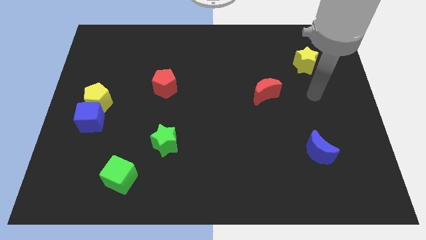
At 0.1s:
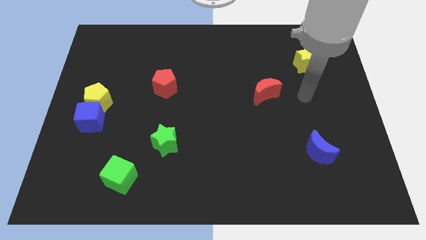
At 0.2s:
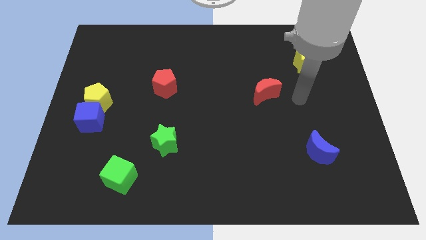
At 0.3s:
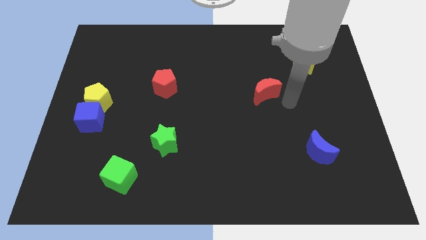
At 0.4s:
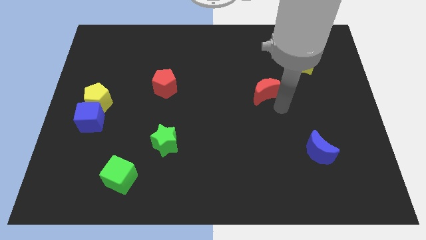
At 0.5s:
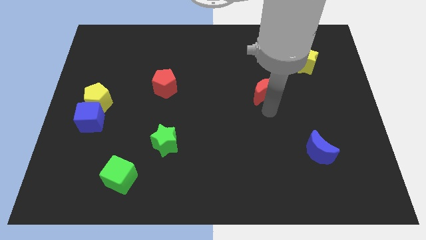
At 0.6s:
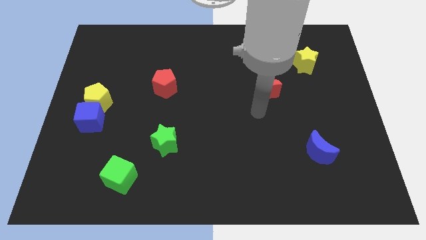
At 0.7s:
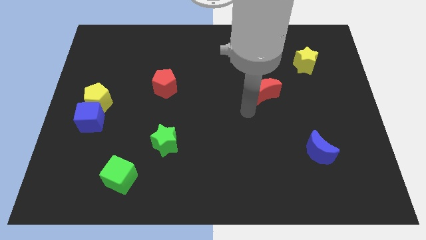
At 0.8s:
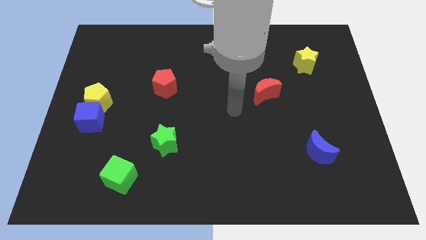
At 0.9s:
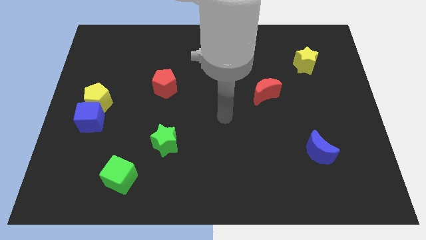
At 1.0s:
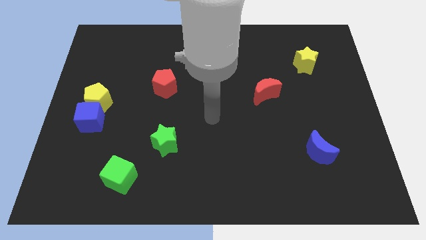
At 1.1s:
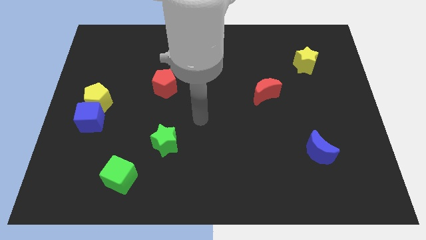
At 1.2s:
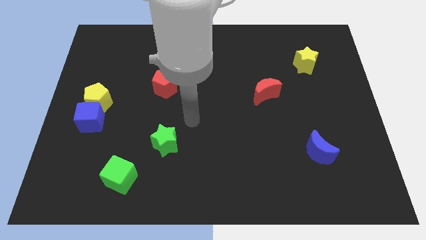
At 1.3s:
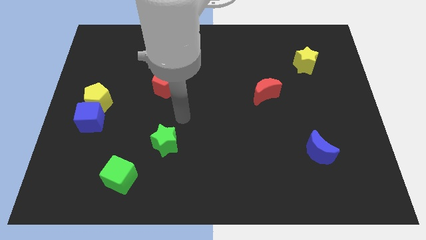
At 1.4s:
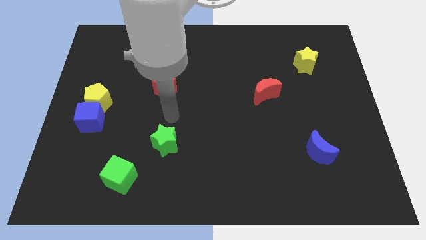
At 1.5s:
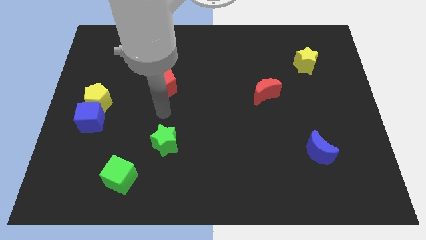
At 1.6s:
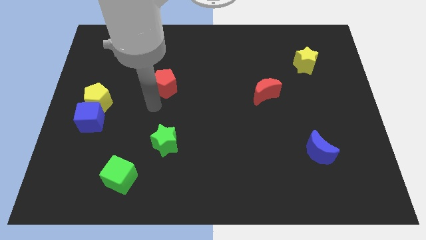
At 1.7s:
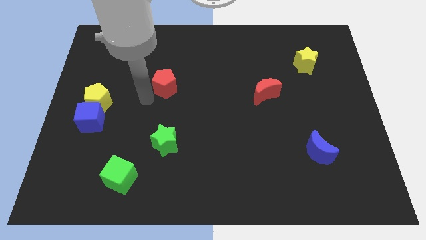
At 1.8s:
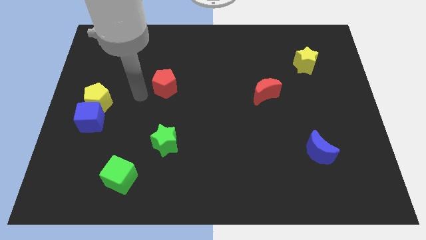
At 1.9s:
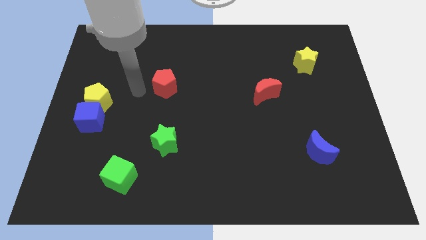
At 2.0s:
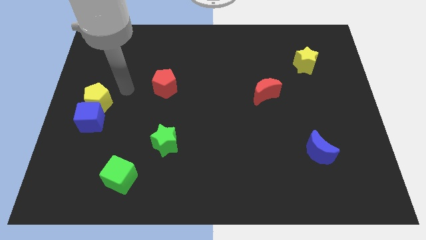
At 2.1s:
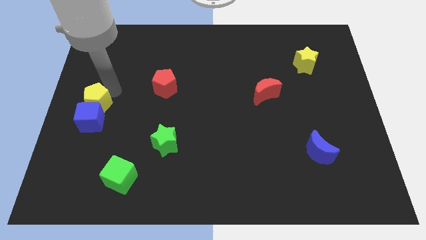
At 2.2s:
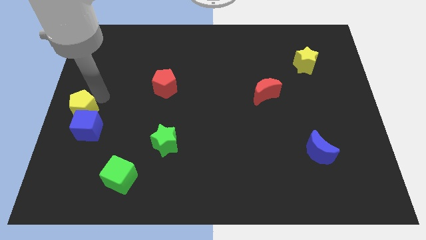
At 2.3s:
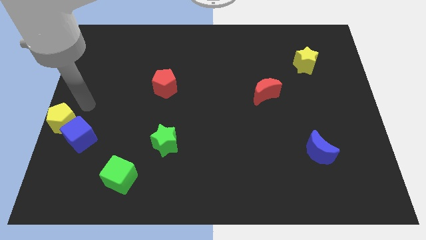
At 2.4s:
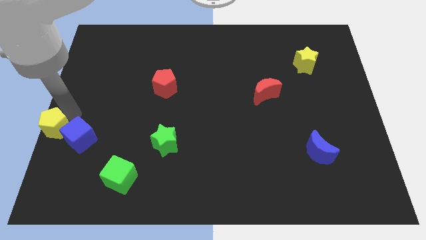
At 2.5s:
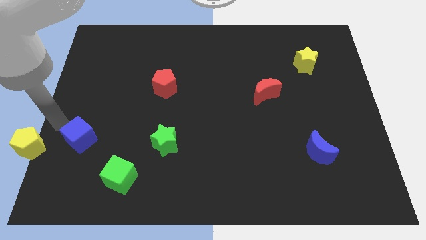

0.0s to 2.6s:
pull the blue cube apart from the yellow pentagon

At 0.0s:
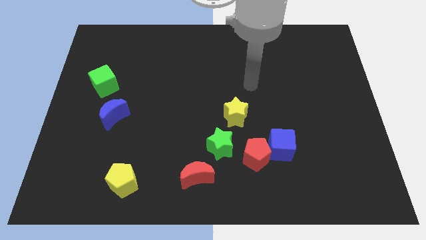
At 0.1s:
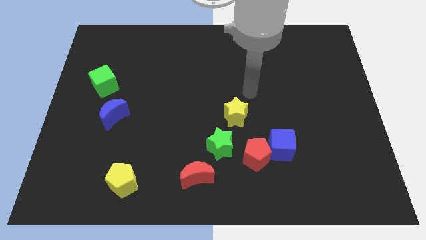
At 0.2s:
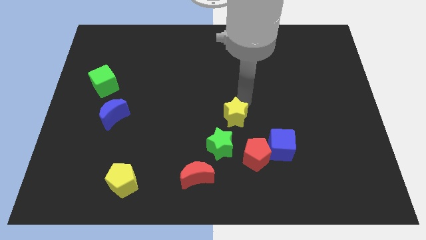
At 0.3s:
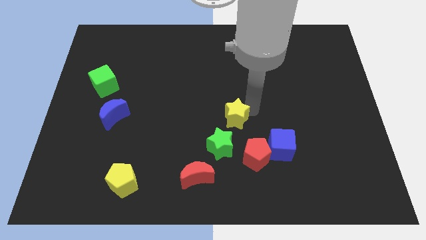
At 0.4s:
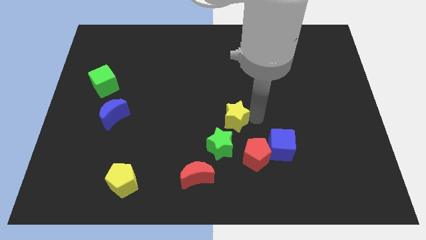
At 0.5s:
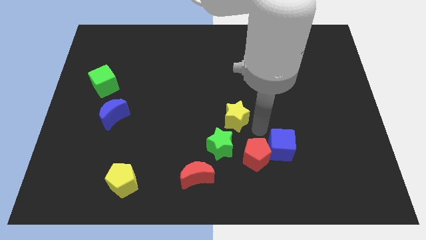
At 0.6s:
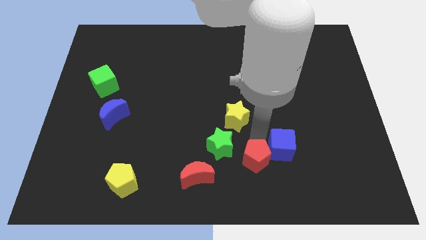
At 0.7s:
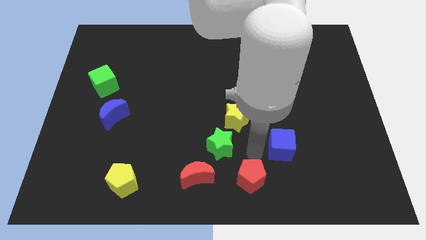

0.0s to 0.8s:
pull the blue cube apart from the red pentagon

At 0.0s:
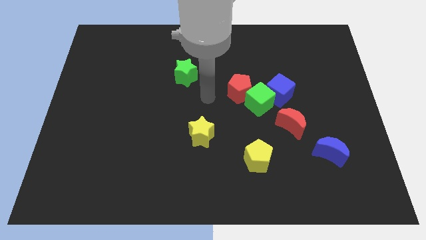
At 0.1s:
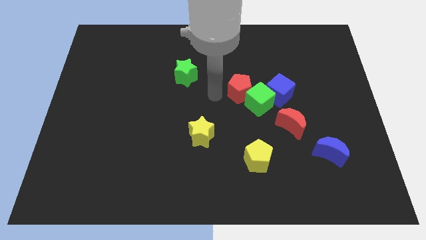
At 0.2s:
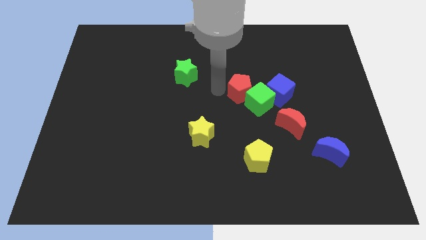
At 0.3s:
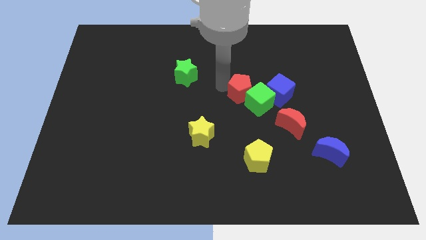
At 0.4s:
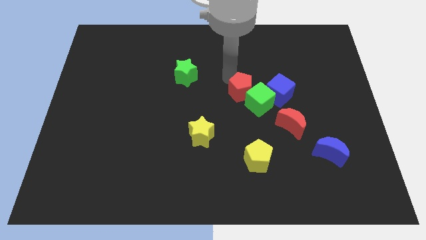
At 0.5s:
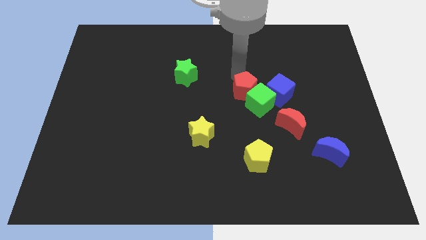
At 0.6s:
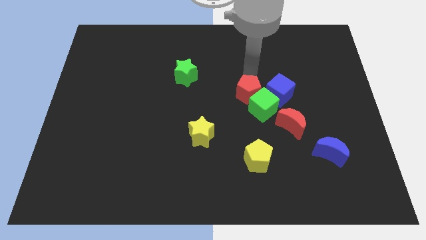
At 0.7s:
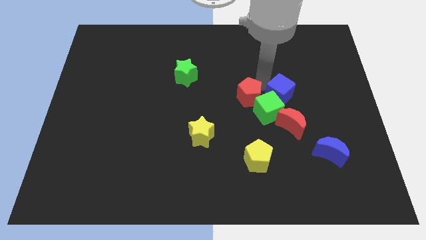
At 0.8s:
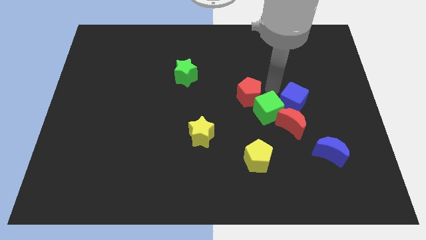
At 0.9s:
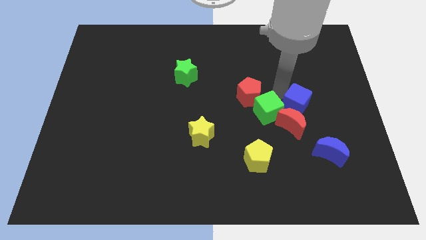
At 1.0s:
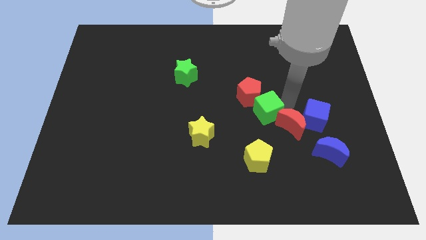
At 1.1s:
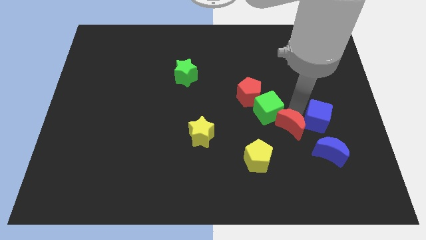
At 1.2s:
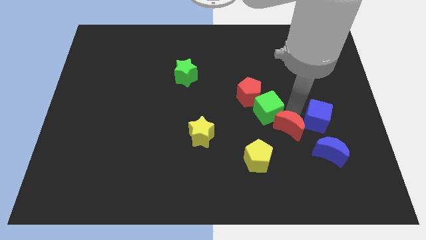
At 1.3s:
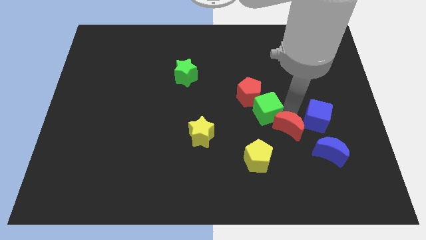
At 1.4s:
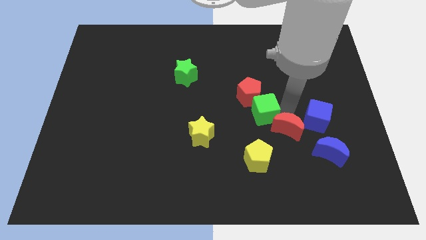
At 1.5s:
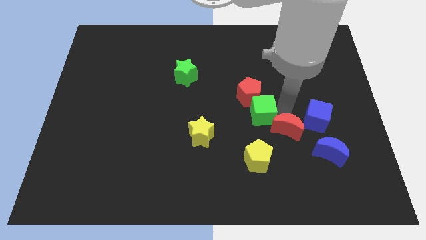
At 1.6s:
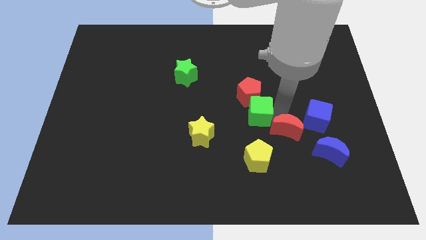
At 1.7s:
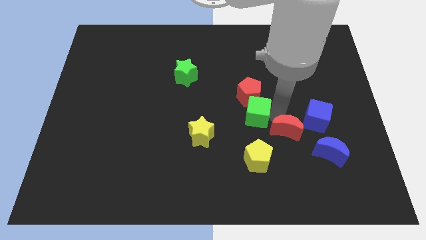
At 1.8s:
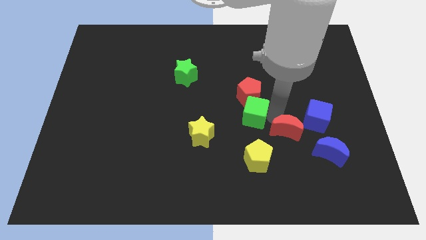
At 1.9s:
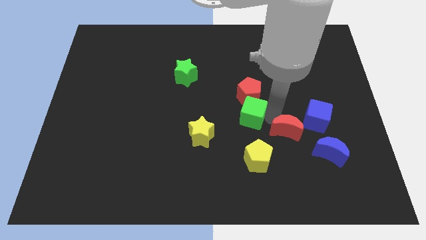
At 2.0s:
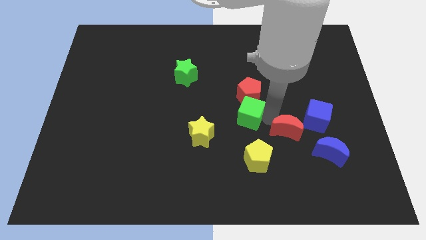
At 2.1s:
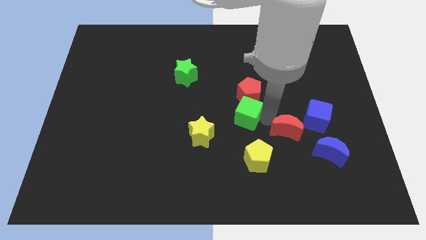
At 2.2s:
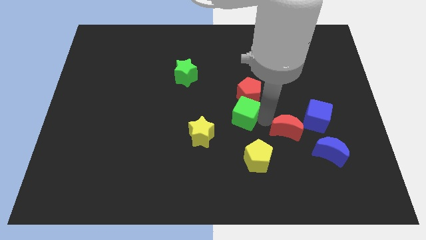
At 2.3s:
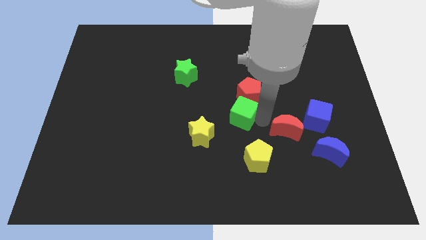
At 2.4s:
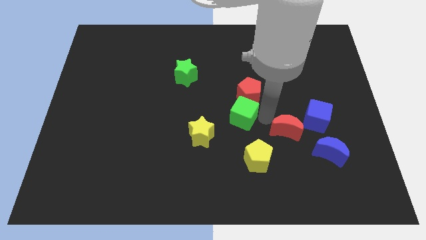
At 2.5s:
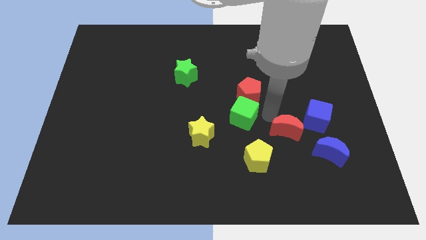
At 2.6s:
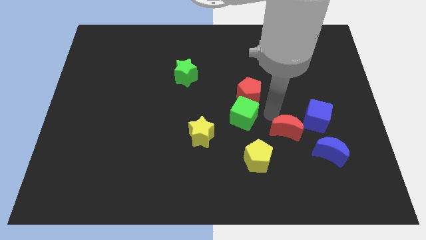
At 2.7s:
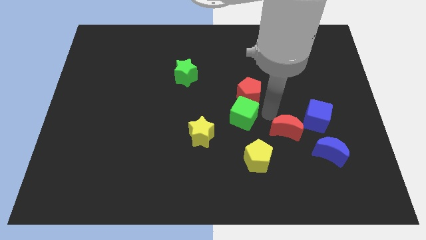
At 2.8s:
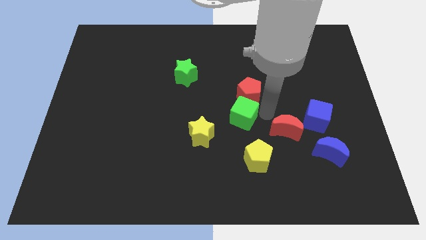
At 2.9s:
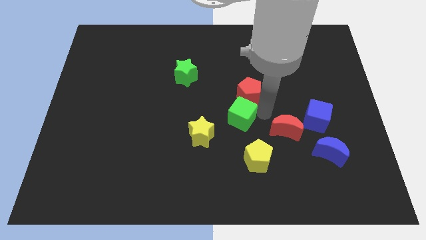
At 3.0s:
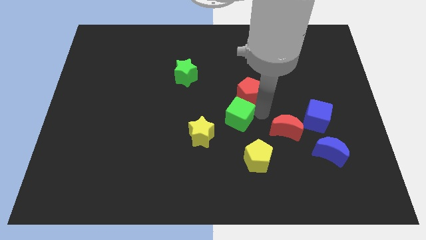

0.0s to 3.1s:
pull the green cube apart from the blue cube, red pentagon, and red moon

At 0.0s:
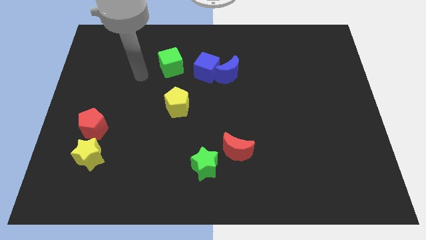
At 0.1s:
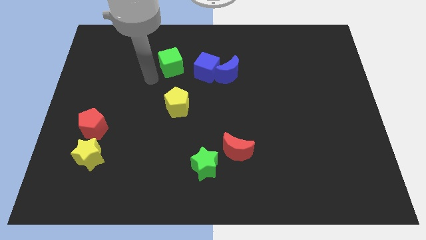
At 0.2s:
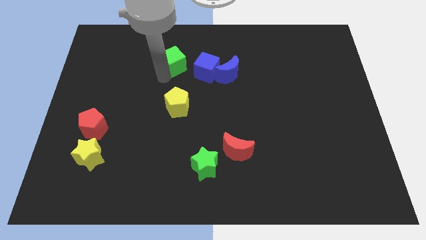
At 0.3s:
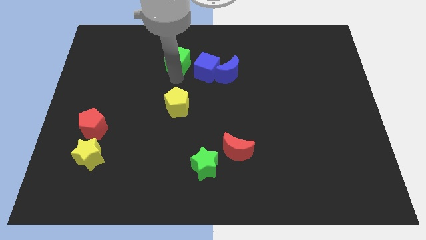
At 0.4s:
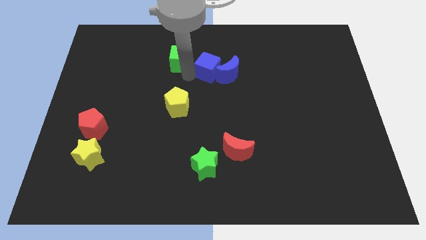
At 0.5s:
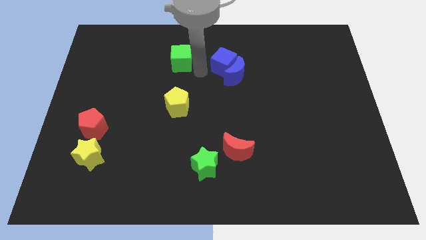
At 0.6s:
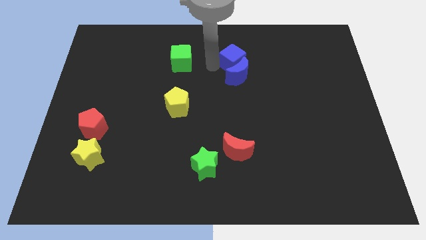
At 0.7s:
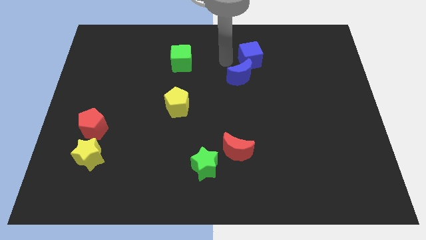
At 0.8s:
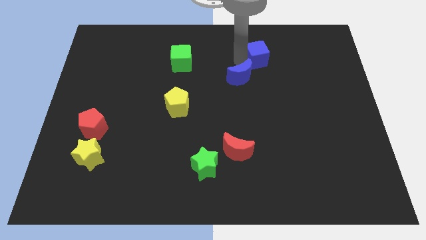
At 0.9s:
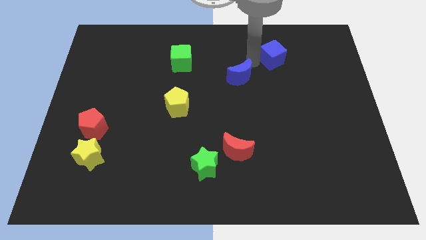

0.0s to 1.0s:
separate the blue moon from the blue cube

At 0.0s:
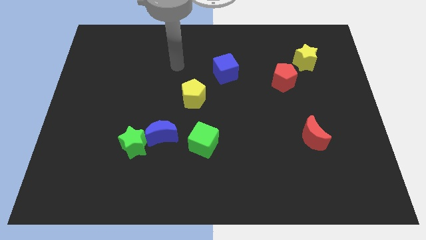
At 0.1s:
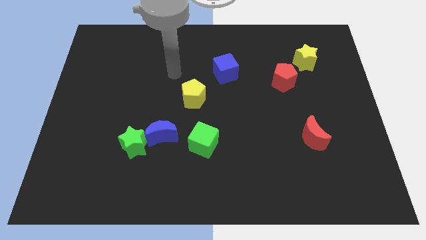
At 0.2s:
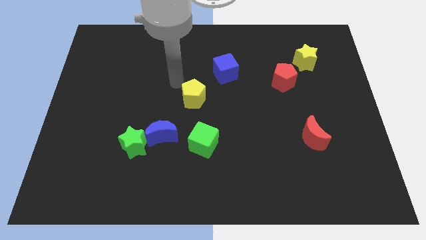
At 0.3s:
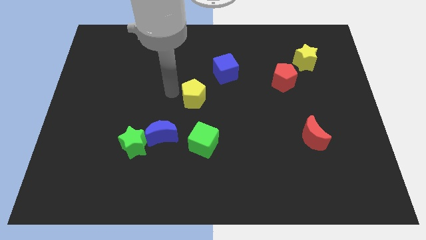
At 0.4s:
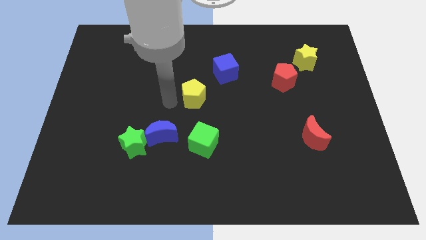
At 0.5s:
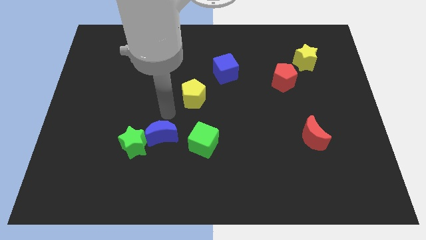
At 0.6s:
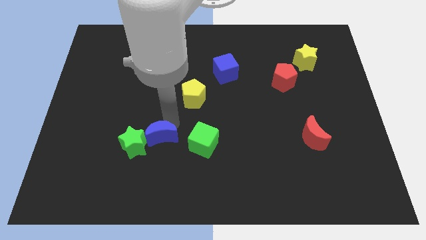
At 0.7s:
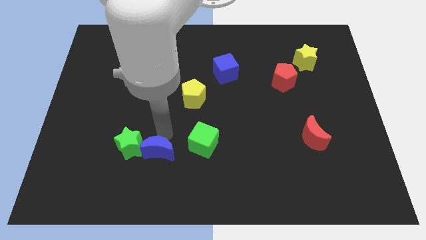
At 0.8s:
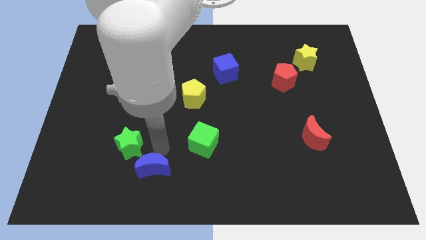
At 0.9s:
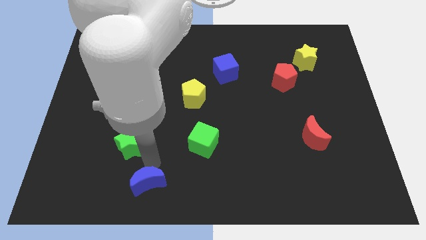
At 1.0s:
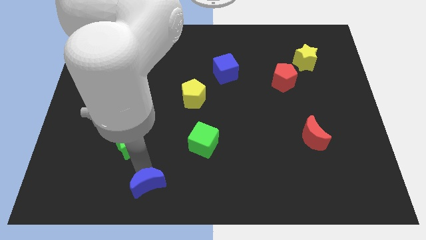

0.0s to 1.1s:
pull the green star apart from the blue moon

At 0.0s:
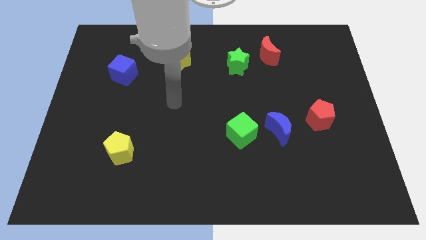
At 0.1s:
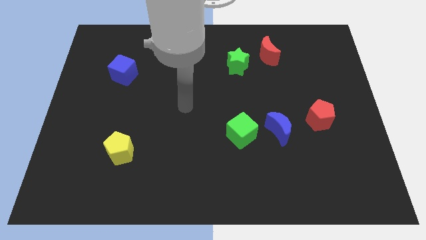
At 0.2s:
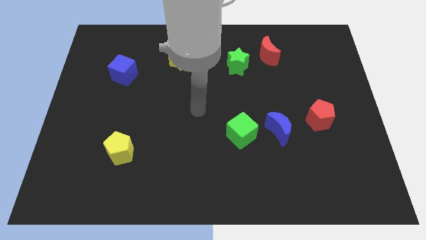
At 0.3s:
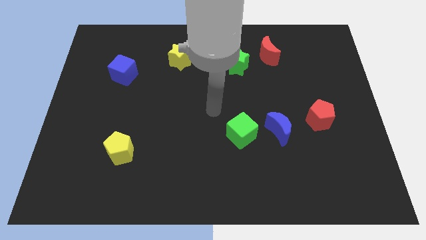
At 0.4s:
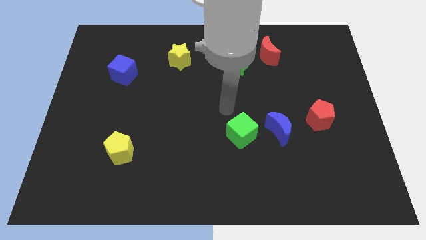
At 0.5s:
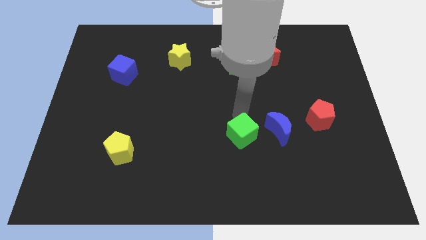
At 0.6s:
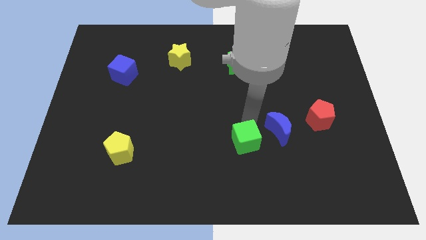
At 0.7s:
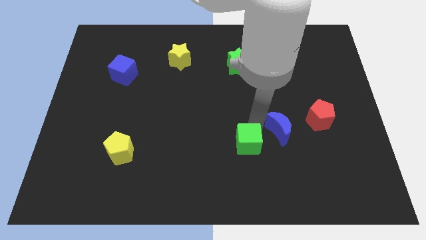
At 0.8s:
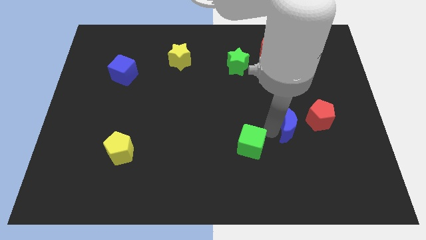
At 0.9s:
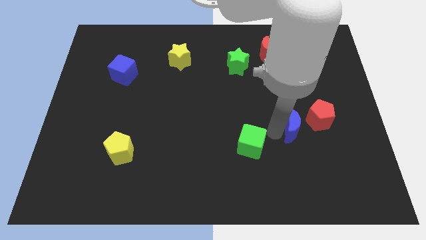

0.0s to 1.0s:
pull the green cube apart from the blue moon
